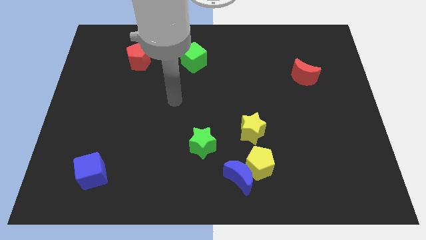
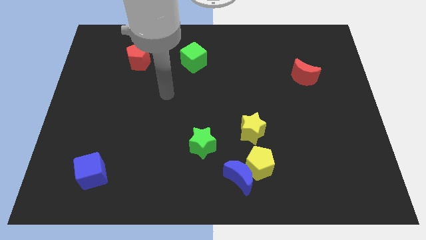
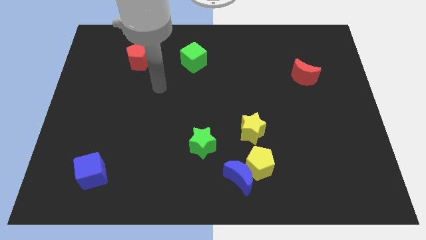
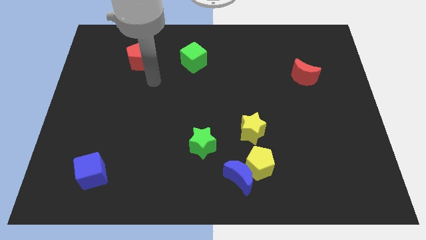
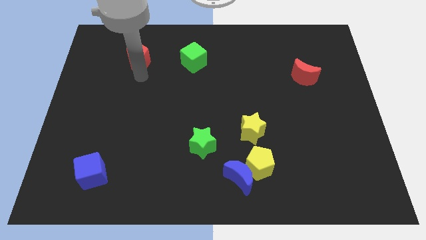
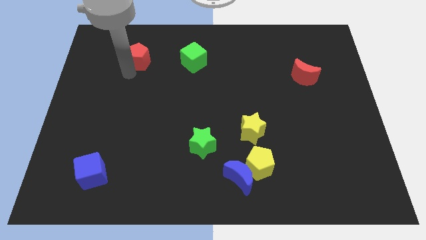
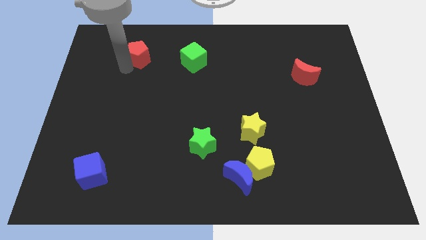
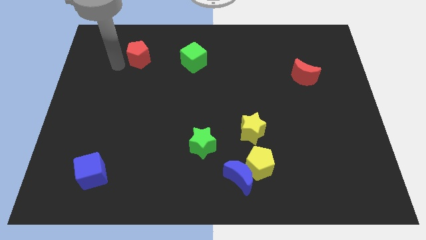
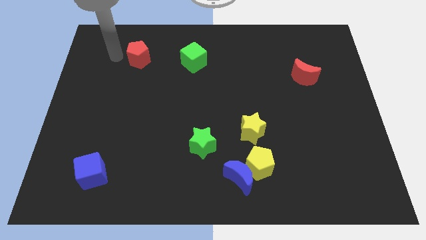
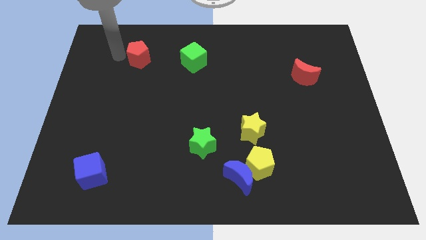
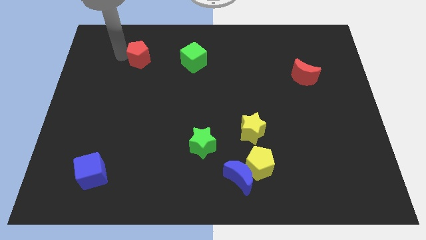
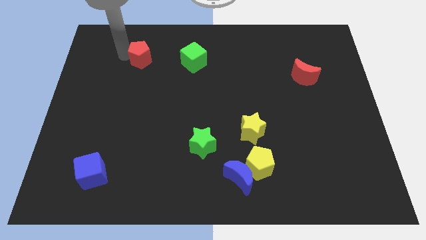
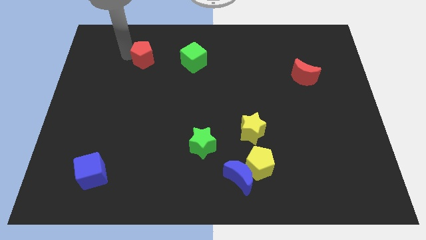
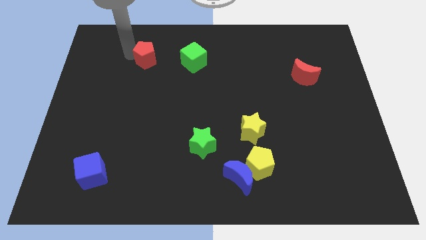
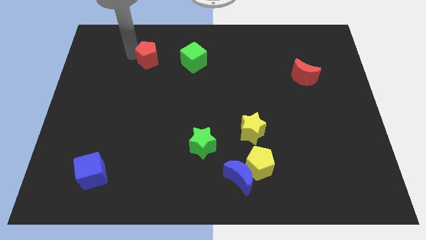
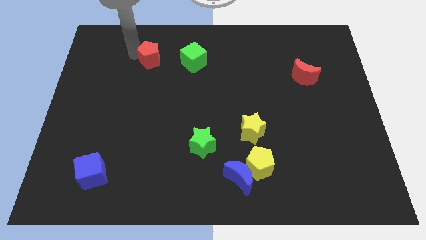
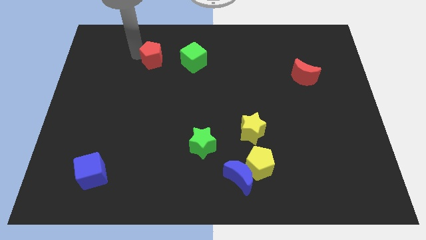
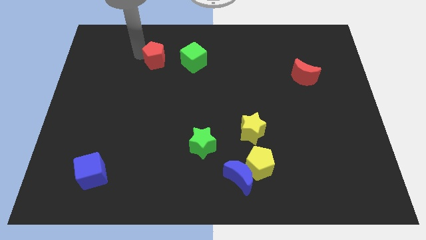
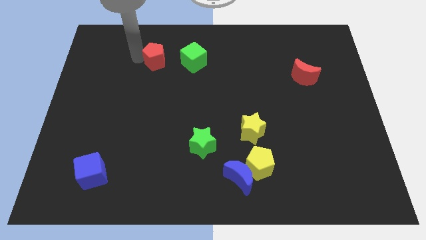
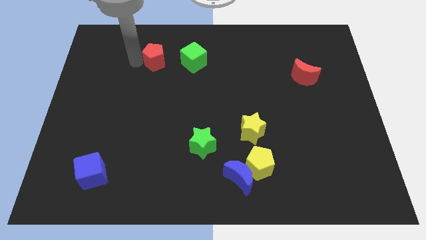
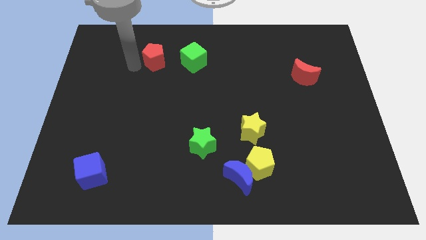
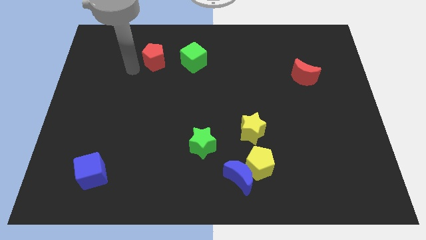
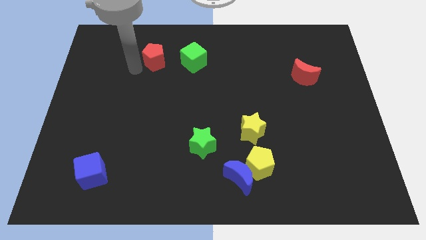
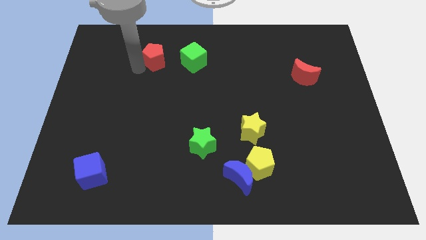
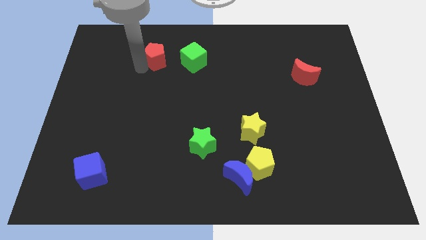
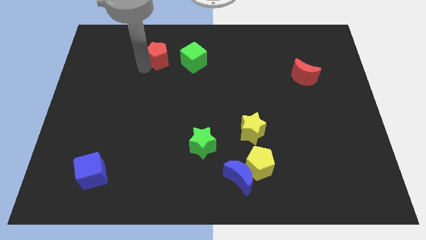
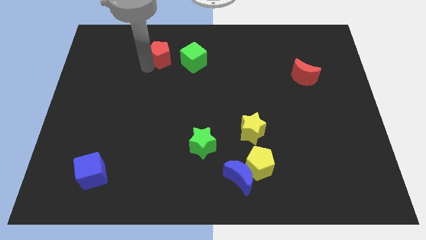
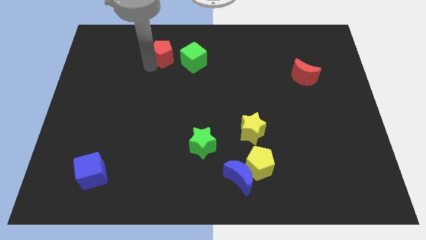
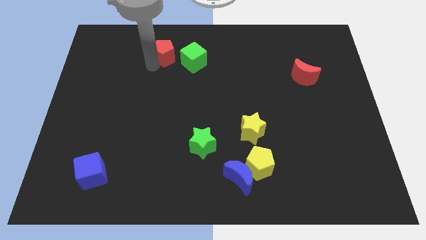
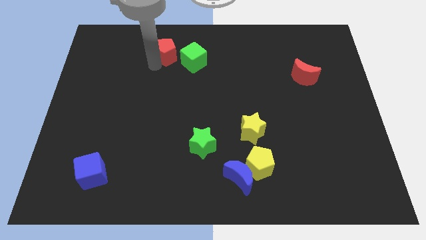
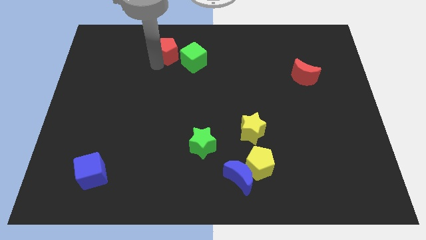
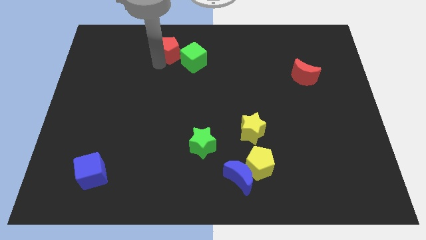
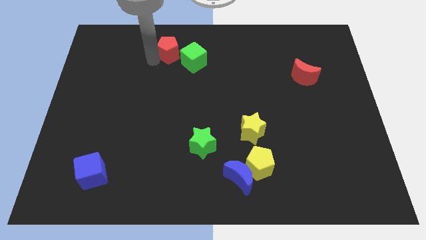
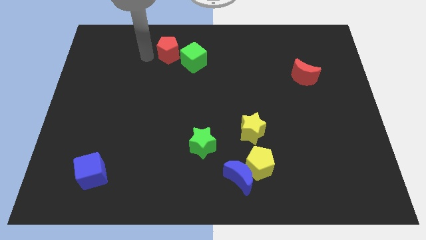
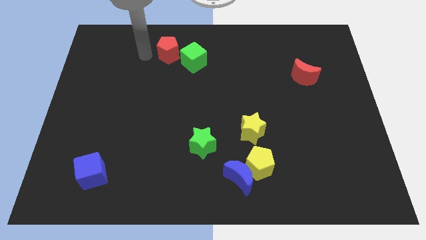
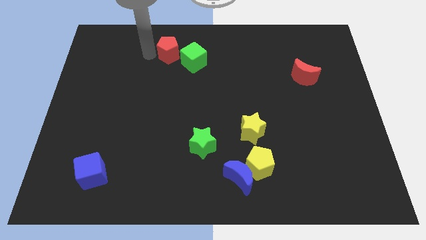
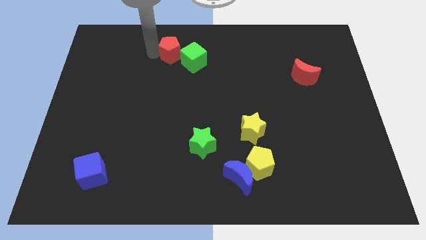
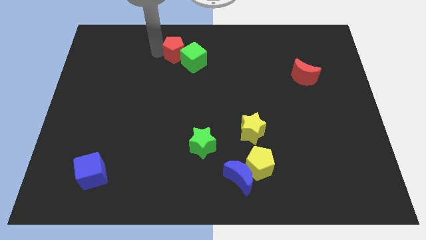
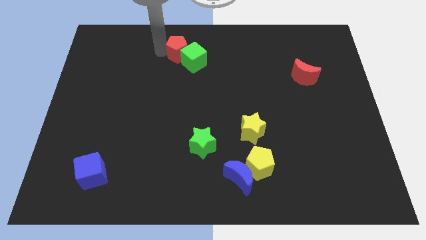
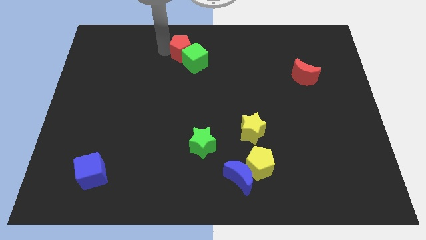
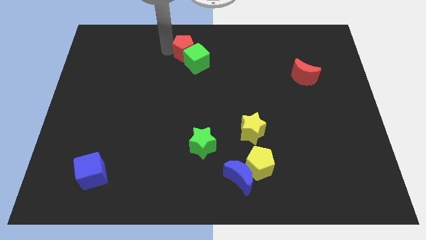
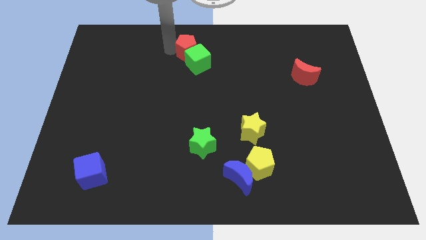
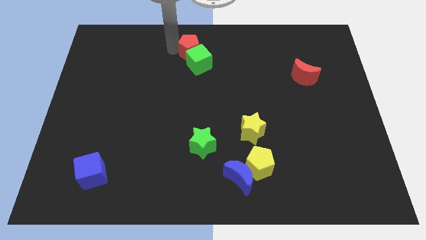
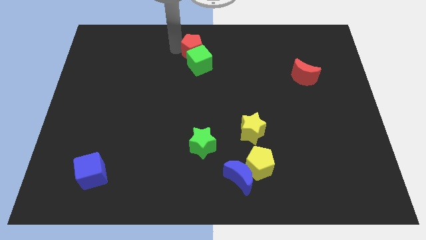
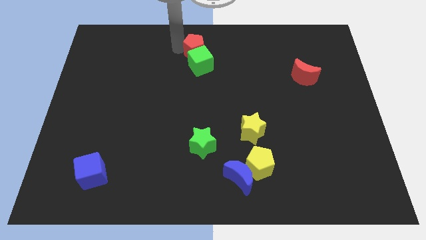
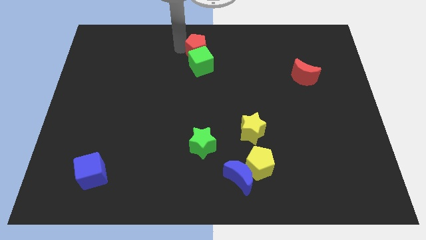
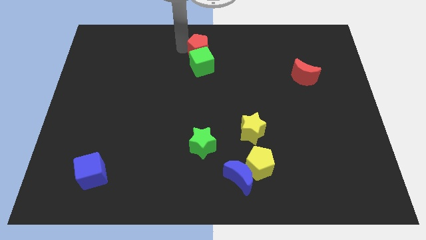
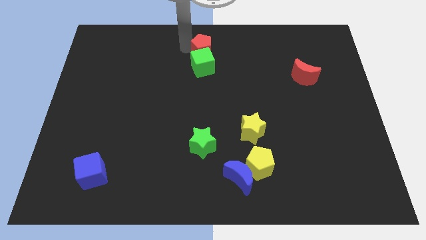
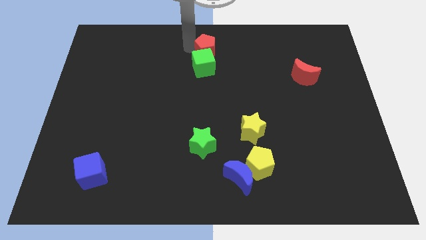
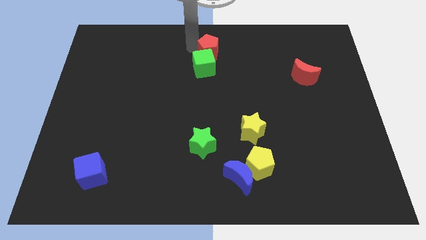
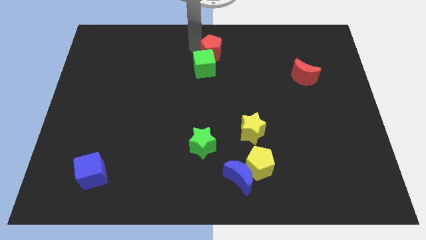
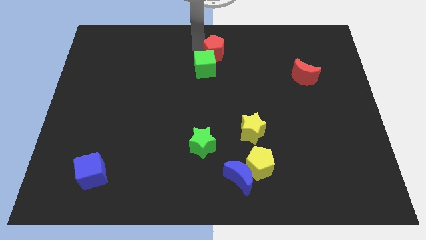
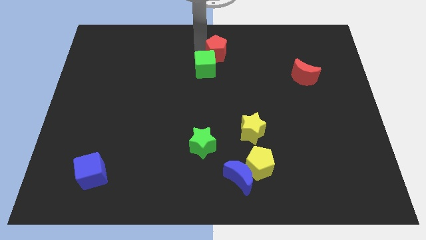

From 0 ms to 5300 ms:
slide the red pentagon right

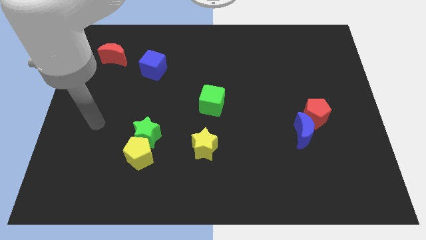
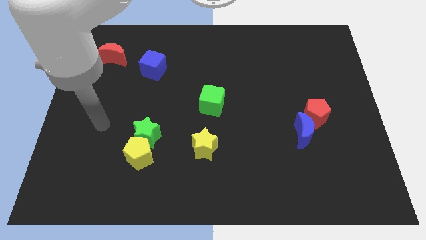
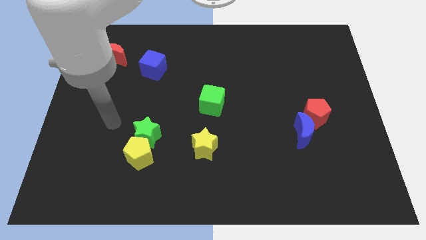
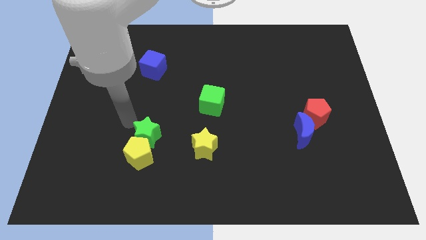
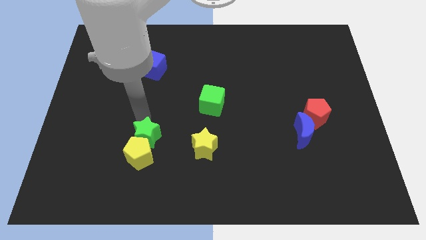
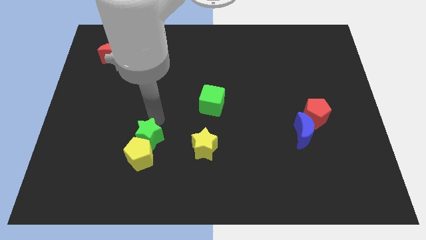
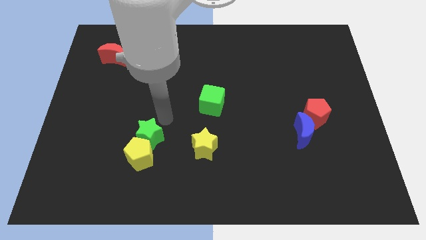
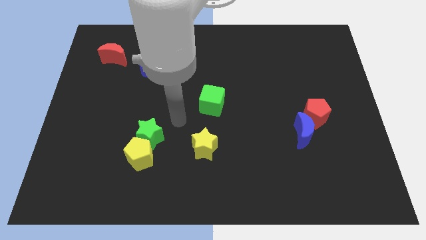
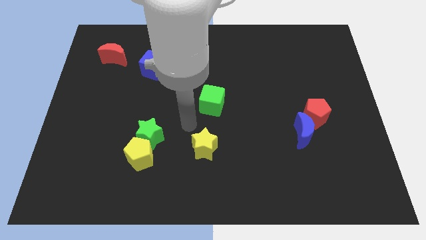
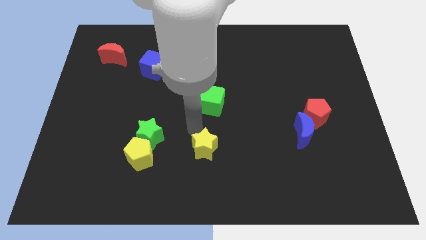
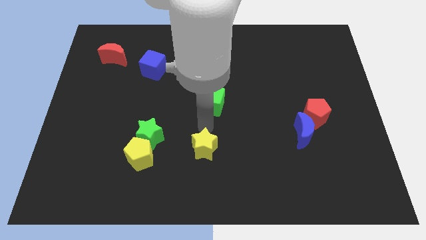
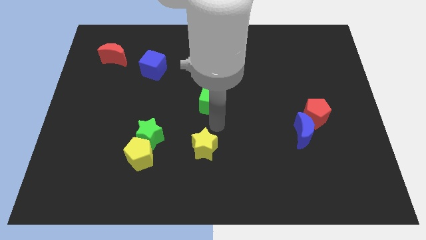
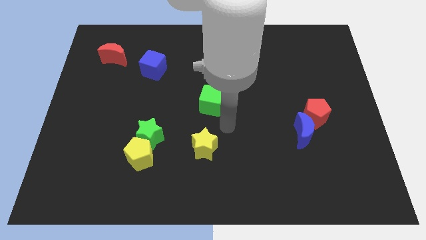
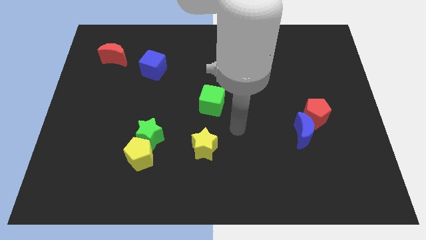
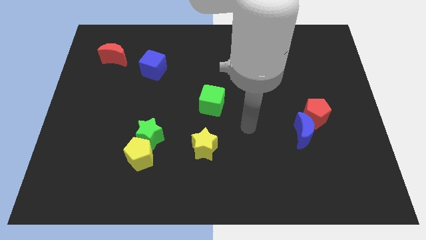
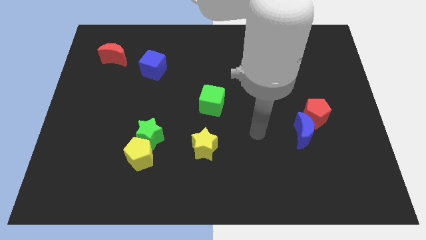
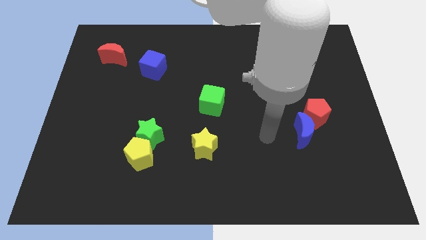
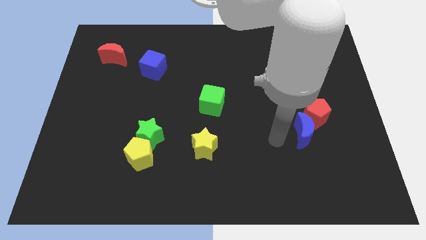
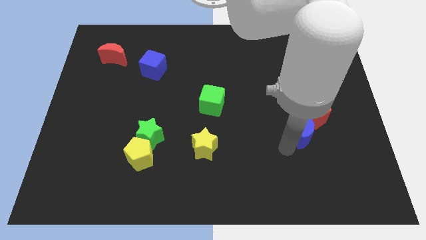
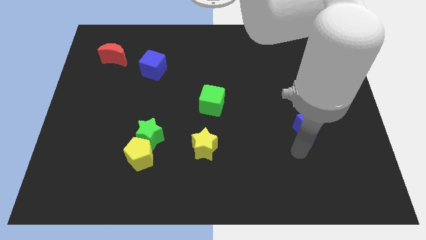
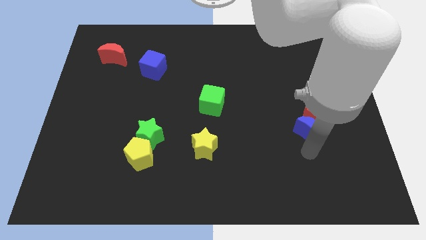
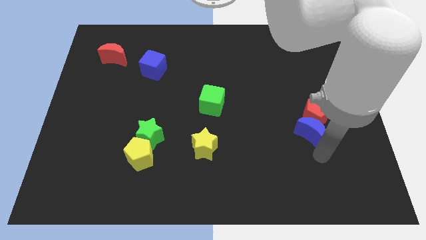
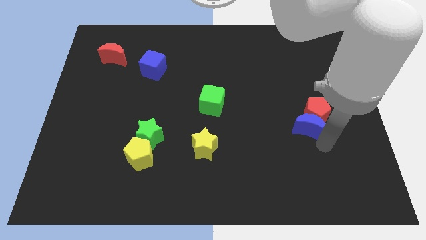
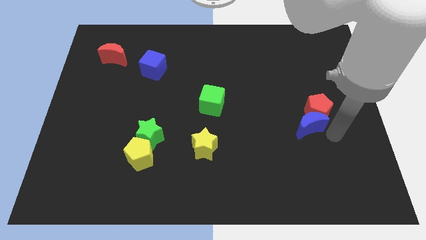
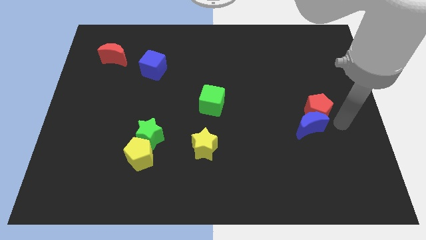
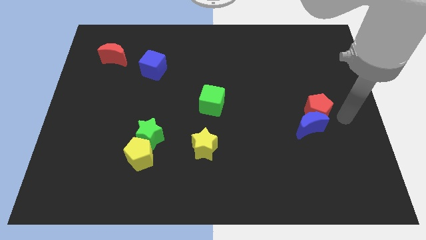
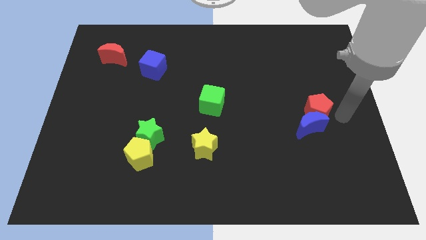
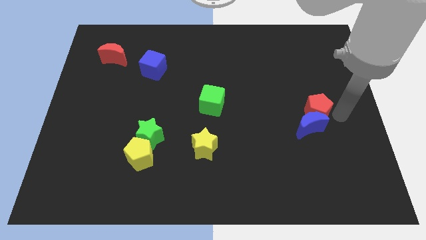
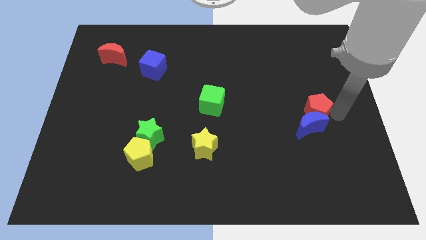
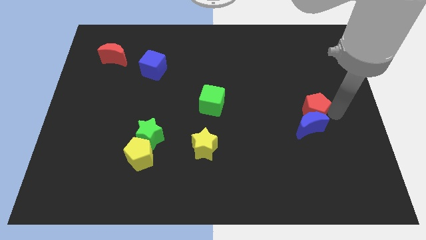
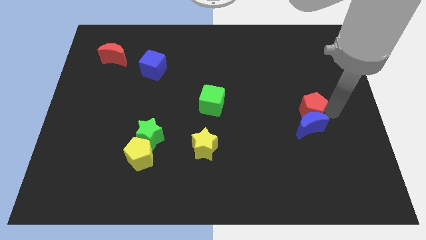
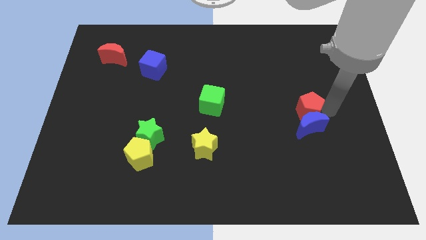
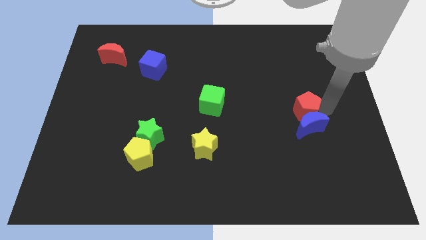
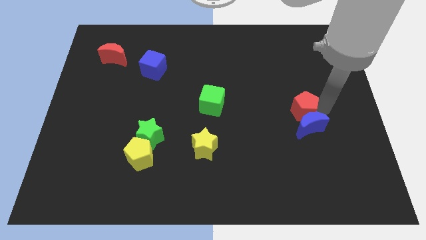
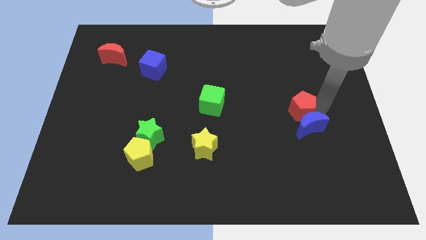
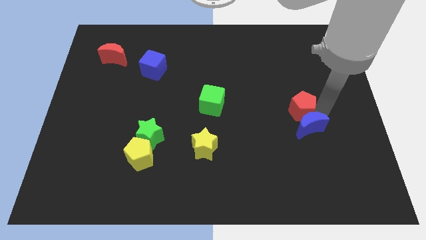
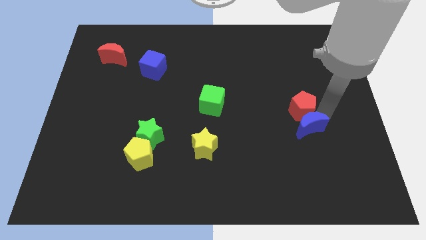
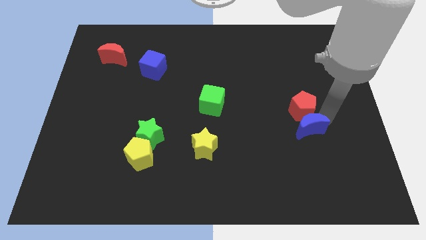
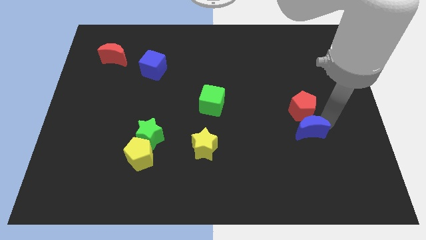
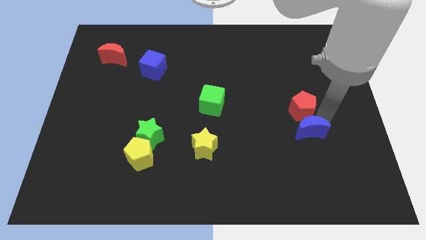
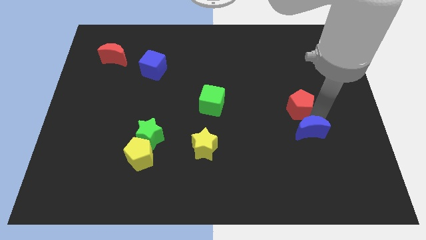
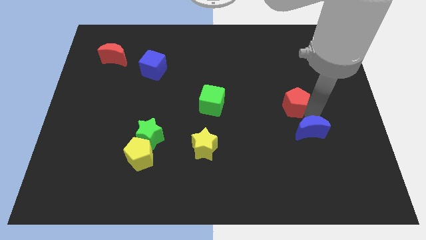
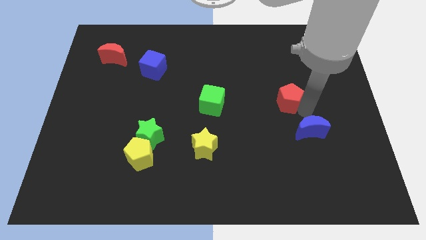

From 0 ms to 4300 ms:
push the red pentagon a little up and left
